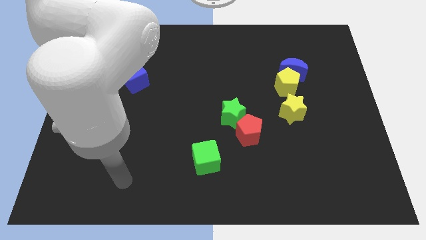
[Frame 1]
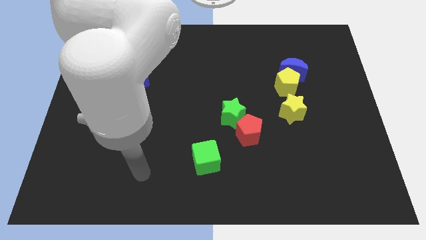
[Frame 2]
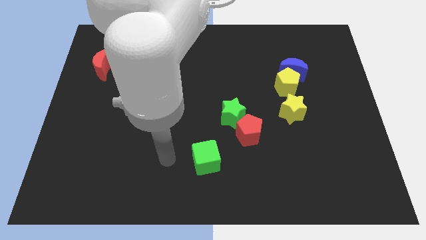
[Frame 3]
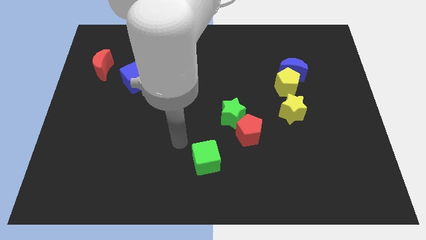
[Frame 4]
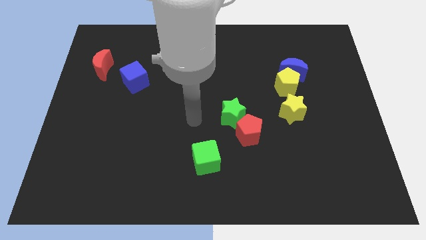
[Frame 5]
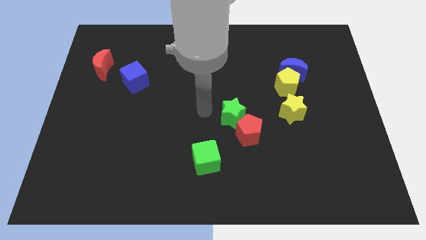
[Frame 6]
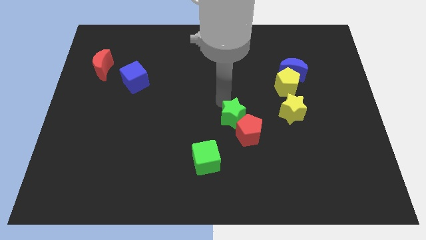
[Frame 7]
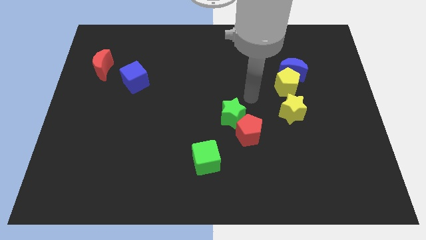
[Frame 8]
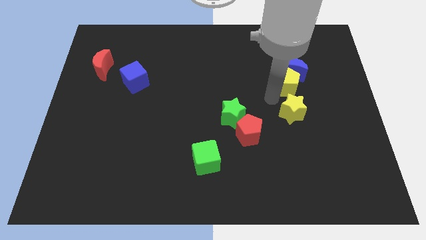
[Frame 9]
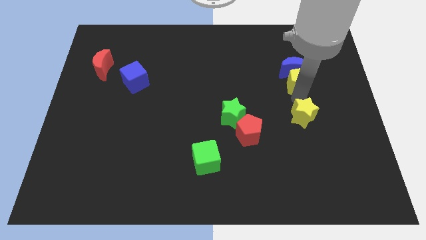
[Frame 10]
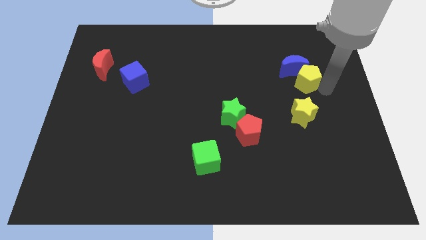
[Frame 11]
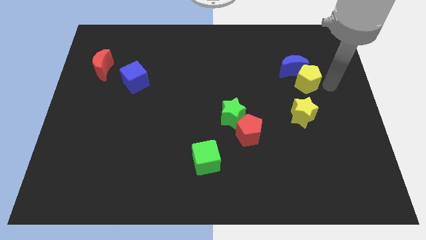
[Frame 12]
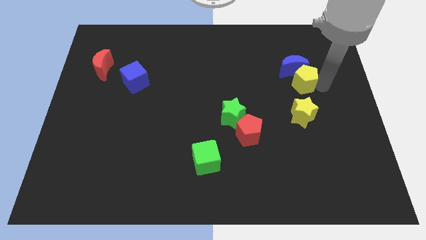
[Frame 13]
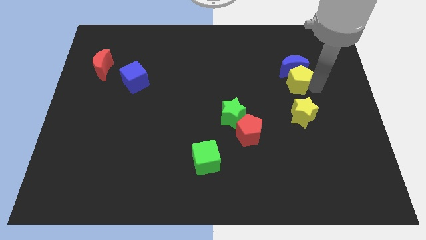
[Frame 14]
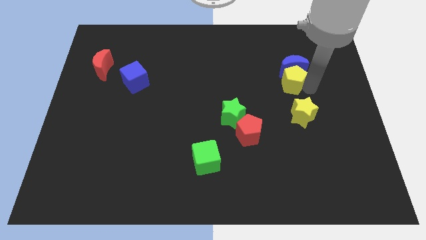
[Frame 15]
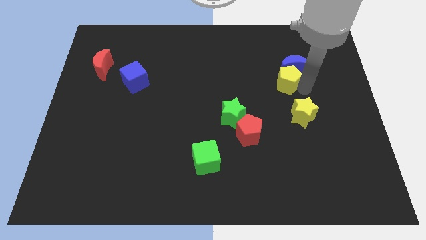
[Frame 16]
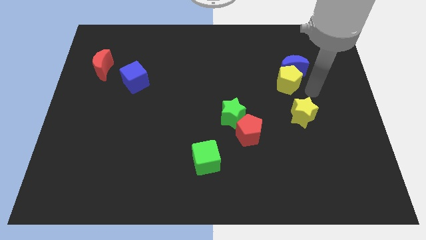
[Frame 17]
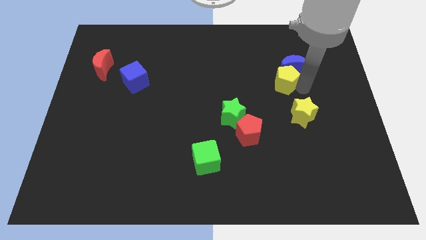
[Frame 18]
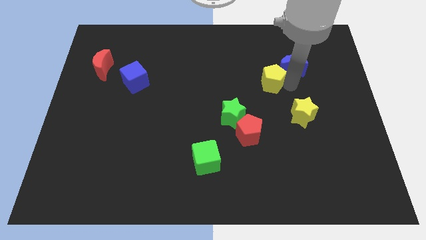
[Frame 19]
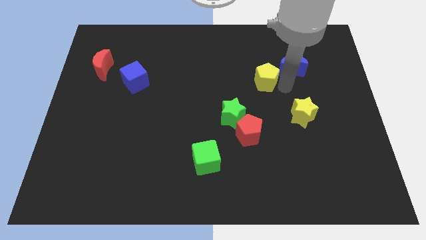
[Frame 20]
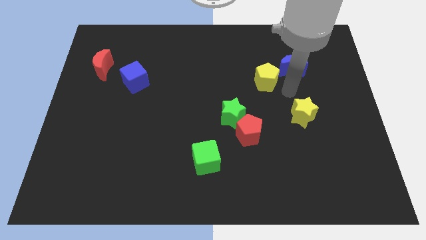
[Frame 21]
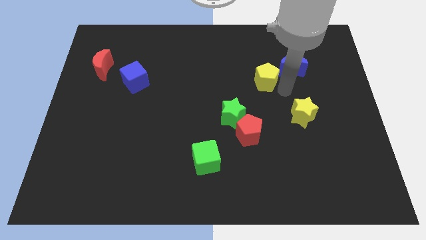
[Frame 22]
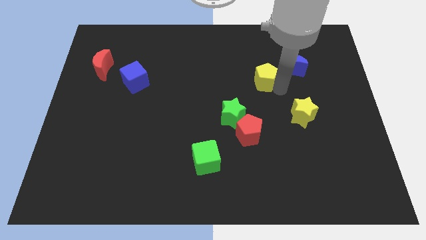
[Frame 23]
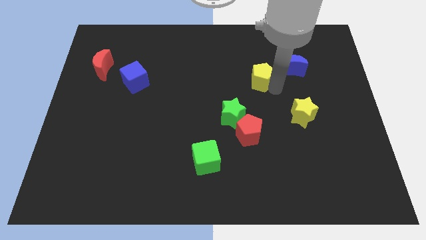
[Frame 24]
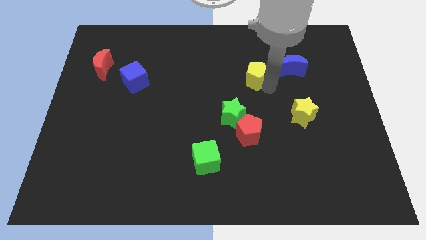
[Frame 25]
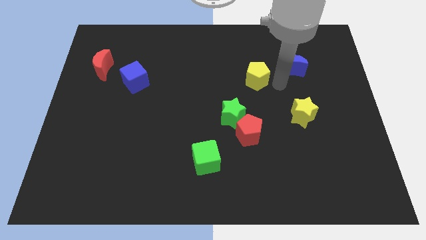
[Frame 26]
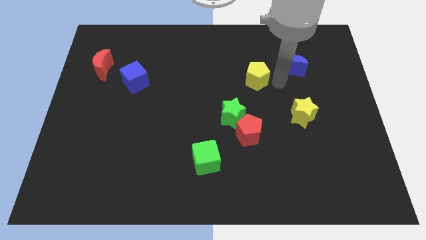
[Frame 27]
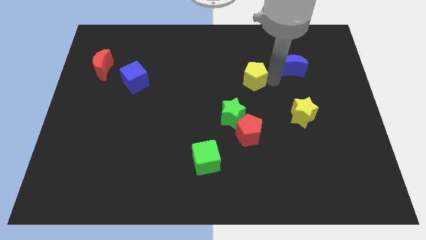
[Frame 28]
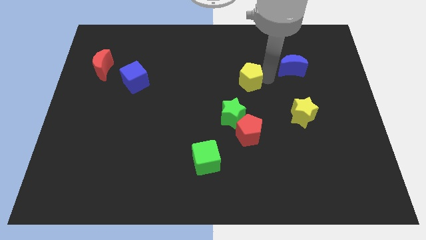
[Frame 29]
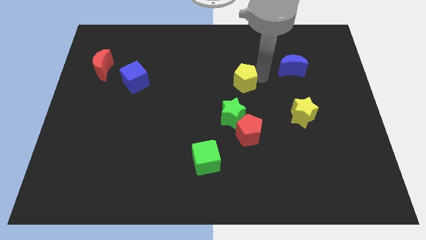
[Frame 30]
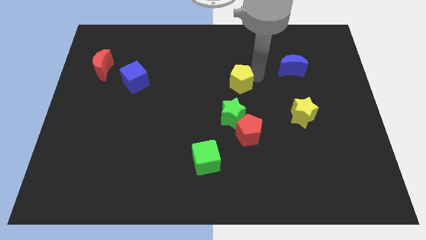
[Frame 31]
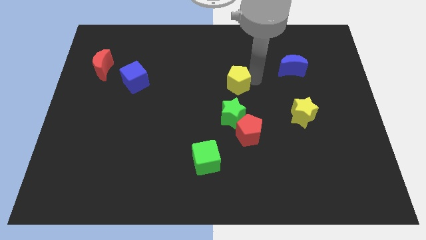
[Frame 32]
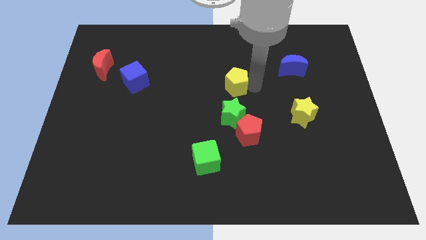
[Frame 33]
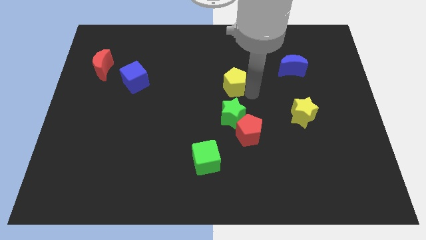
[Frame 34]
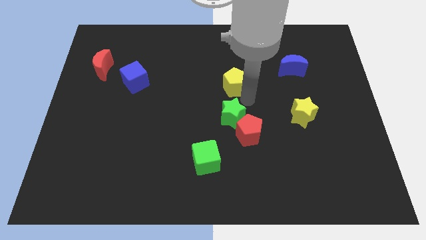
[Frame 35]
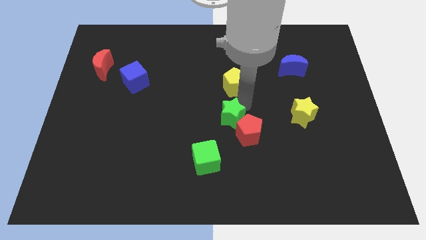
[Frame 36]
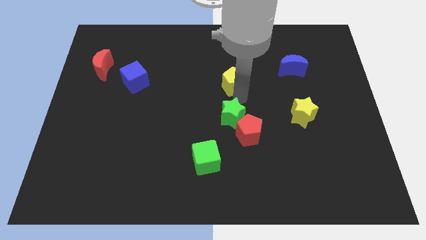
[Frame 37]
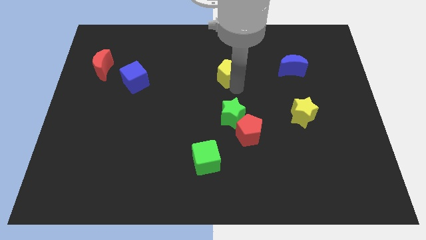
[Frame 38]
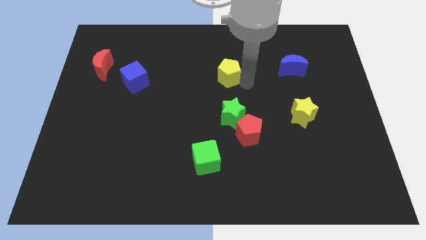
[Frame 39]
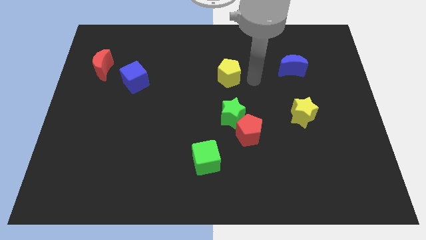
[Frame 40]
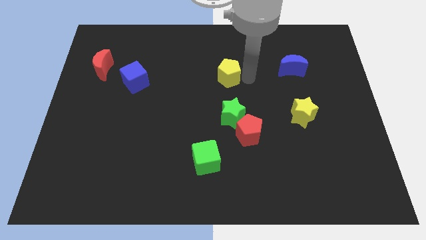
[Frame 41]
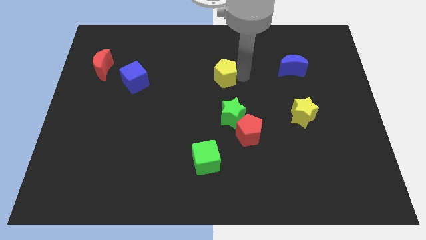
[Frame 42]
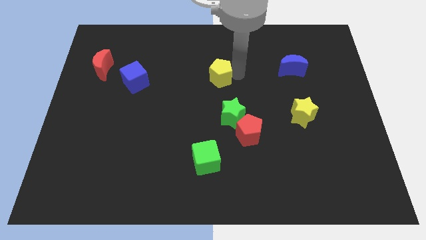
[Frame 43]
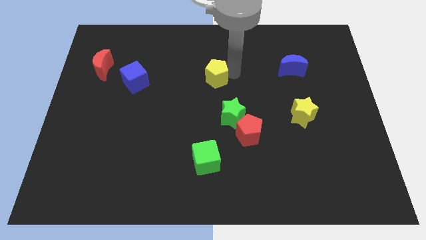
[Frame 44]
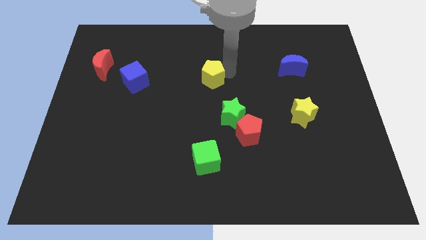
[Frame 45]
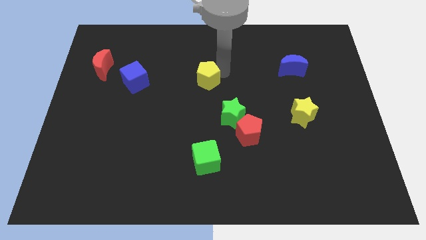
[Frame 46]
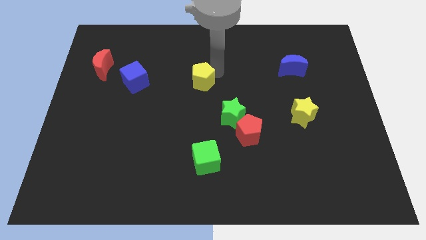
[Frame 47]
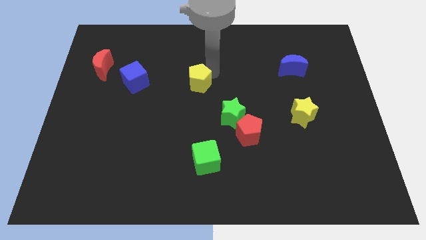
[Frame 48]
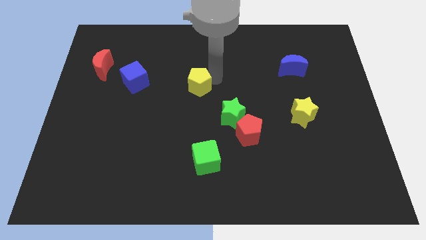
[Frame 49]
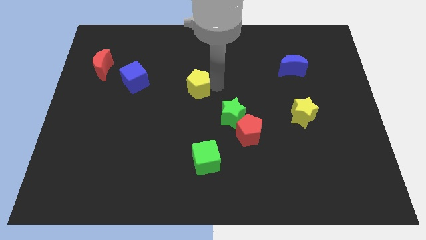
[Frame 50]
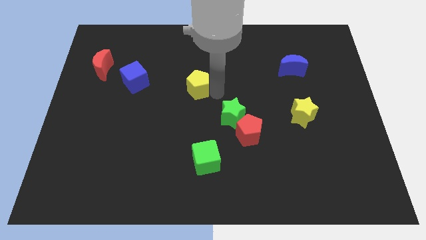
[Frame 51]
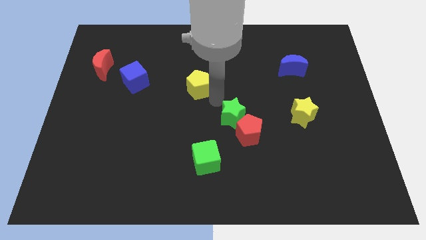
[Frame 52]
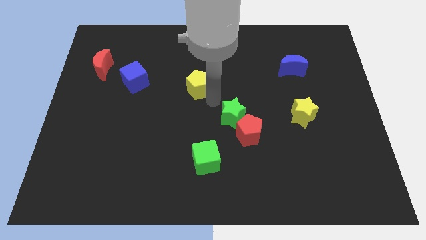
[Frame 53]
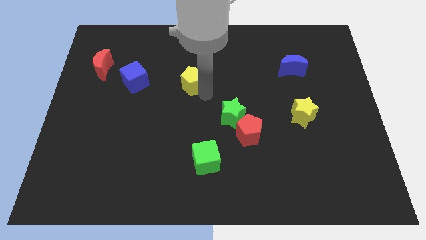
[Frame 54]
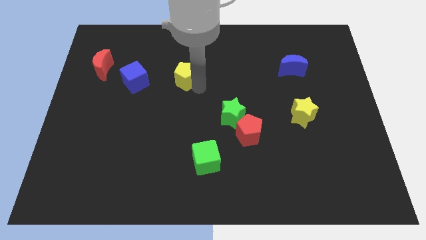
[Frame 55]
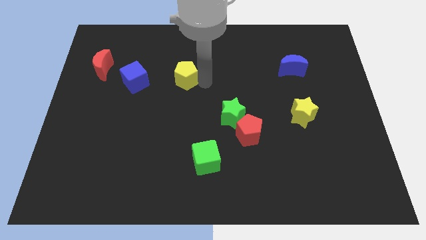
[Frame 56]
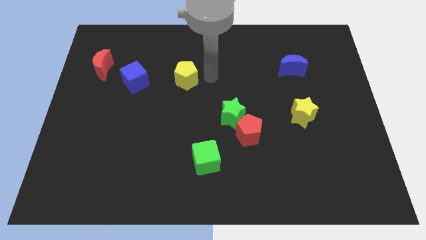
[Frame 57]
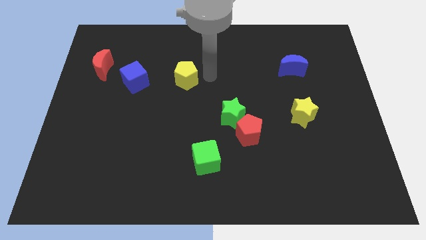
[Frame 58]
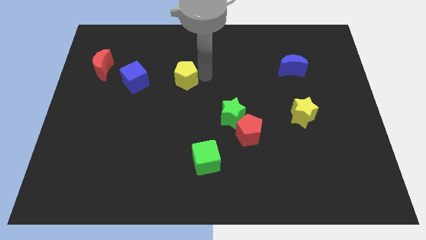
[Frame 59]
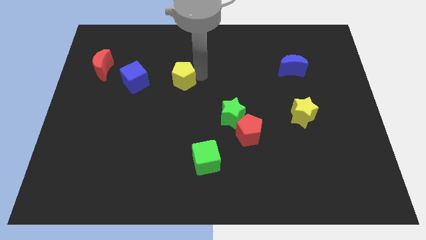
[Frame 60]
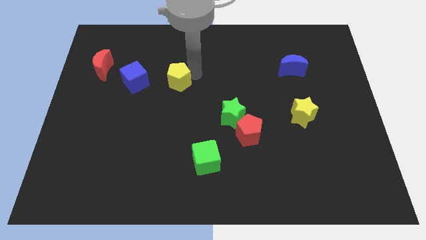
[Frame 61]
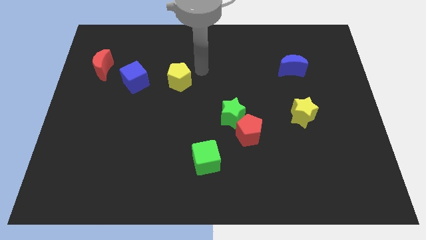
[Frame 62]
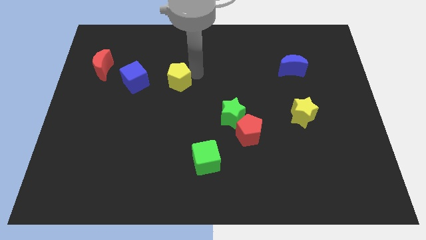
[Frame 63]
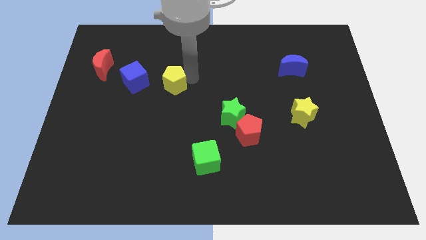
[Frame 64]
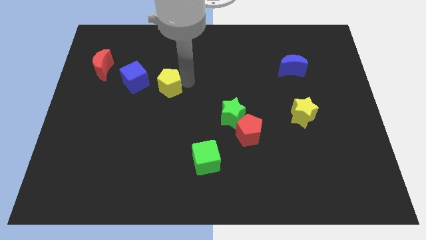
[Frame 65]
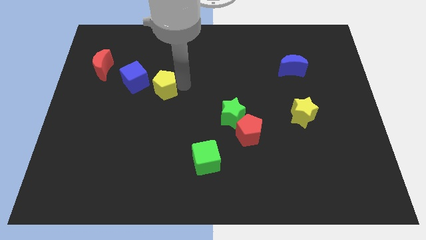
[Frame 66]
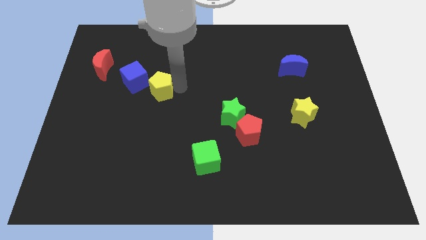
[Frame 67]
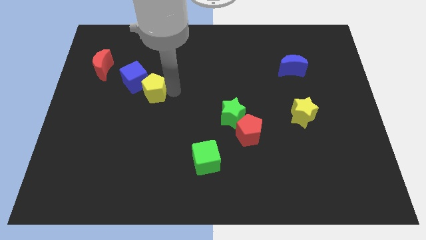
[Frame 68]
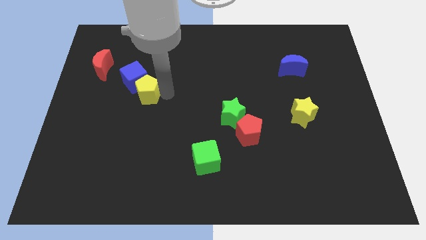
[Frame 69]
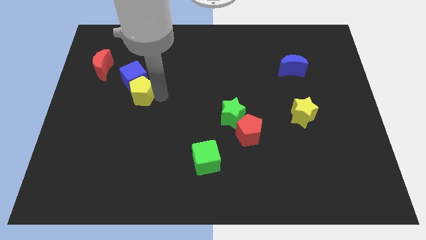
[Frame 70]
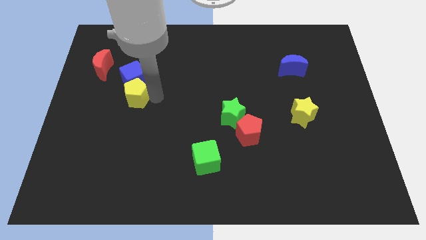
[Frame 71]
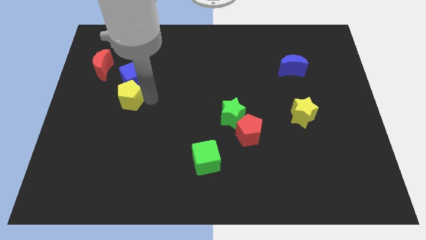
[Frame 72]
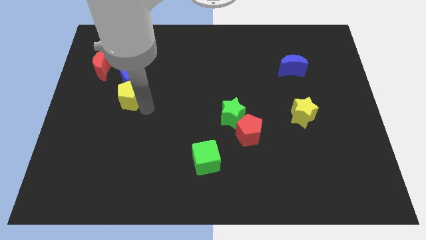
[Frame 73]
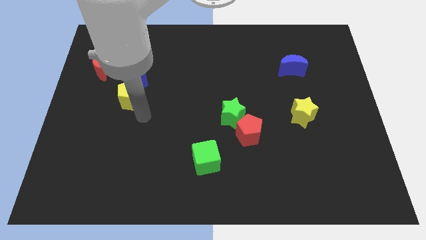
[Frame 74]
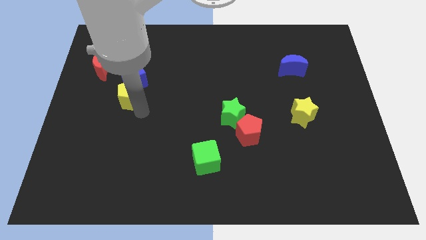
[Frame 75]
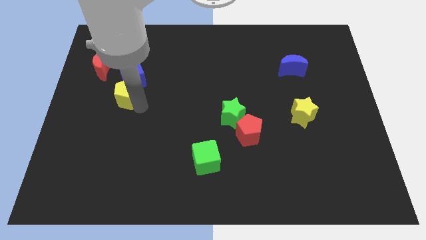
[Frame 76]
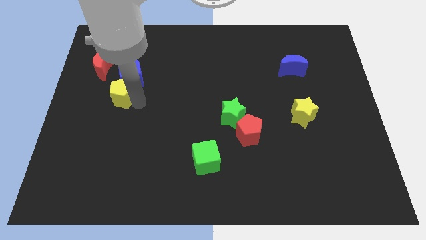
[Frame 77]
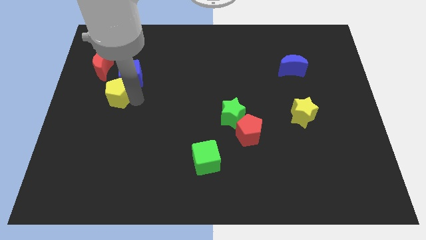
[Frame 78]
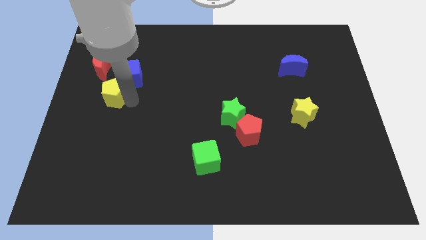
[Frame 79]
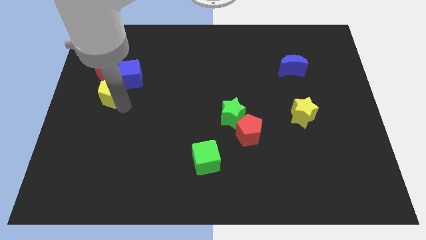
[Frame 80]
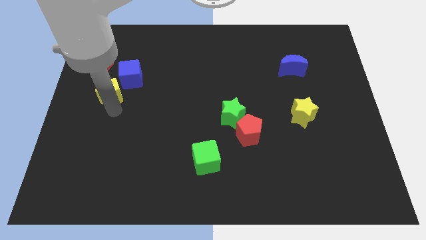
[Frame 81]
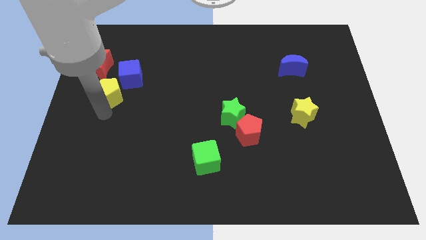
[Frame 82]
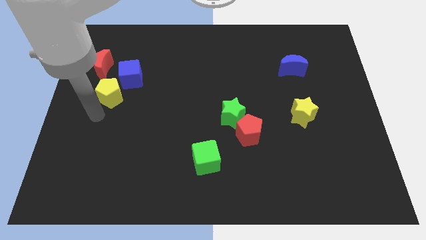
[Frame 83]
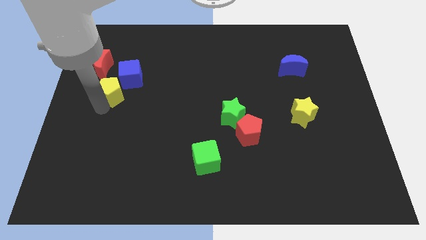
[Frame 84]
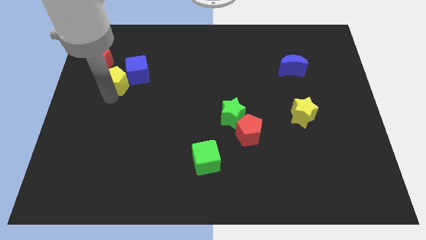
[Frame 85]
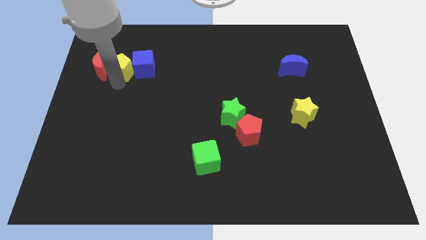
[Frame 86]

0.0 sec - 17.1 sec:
push the yellow pentagon diagonally up and to the left of the blue cube
